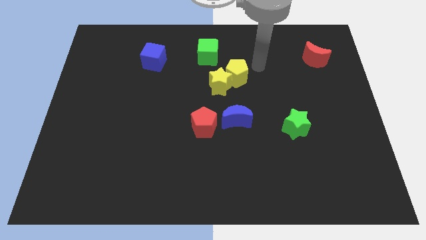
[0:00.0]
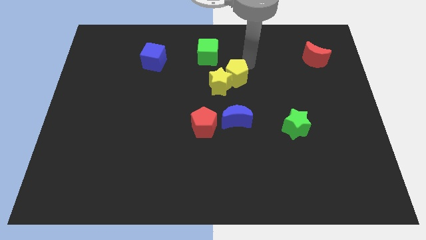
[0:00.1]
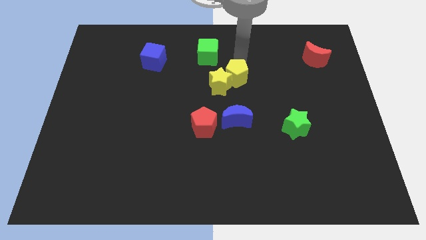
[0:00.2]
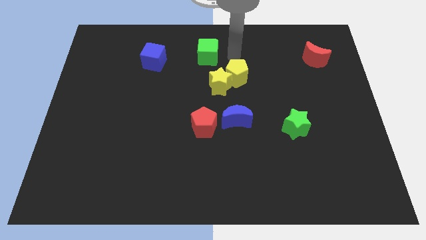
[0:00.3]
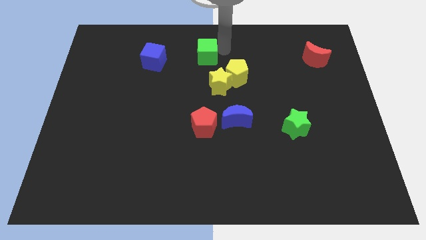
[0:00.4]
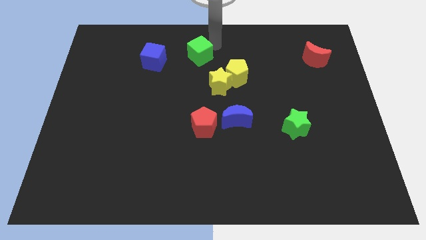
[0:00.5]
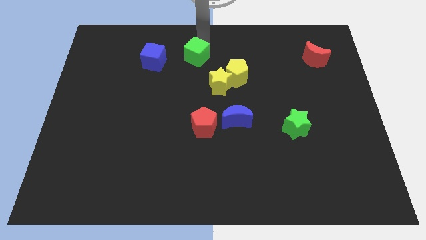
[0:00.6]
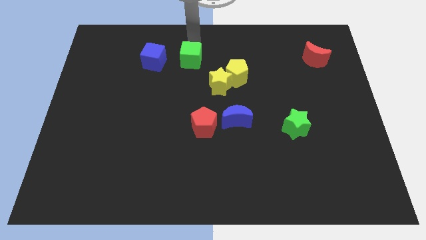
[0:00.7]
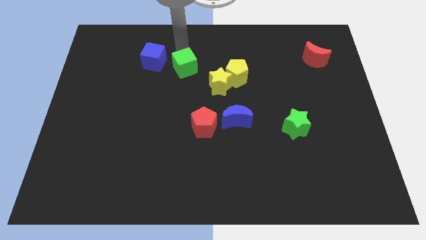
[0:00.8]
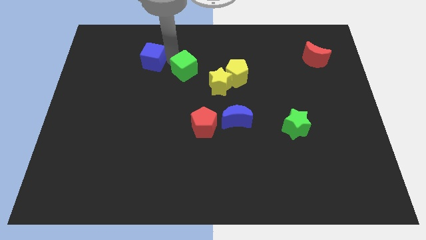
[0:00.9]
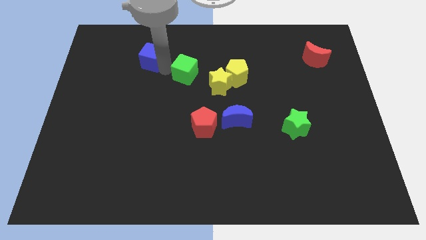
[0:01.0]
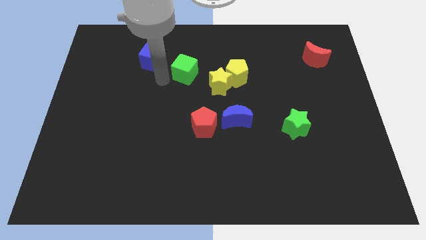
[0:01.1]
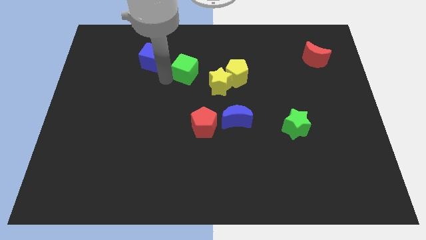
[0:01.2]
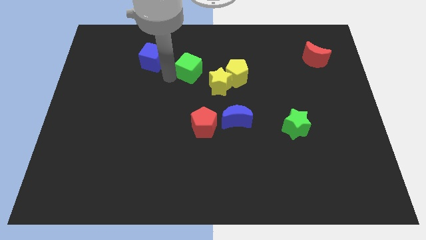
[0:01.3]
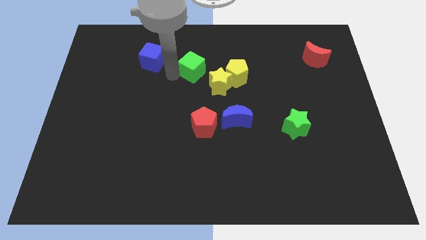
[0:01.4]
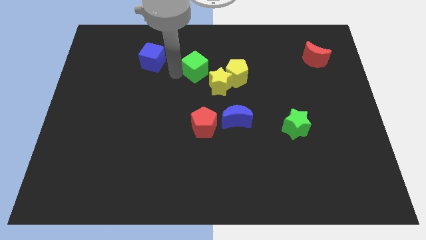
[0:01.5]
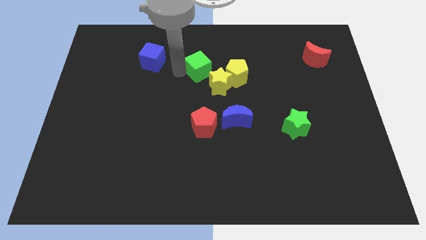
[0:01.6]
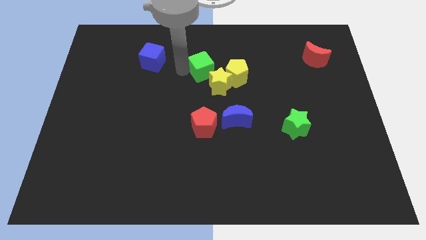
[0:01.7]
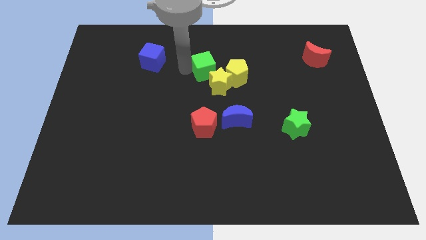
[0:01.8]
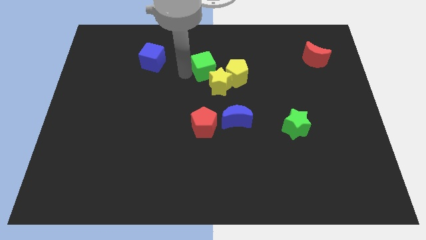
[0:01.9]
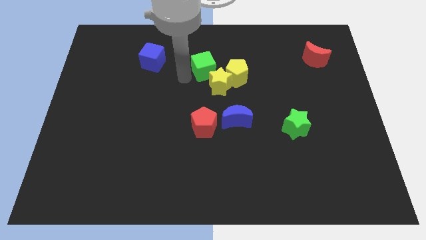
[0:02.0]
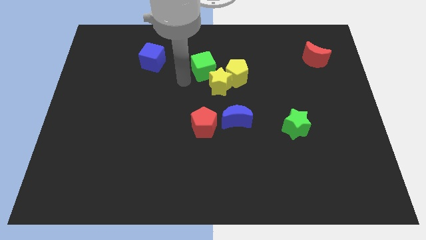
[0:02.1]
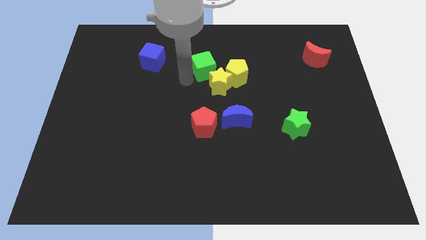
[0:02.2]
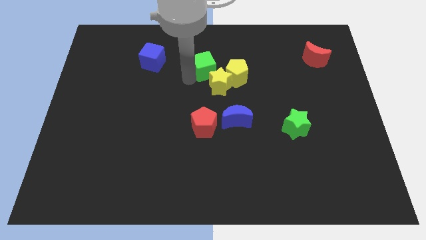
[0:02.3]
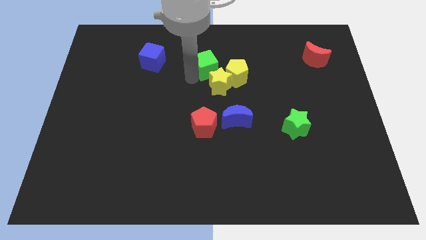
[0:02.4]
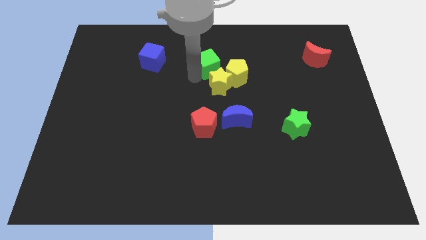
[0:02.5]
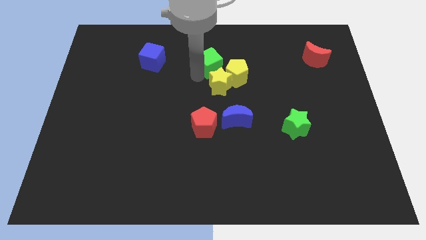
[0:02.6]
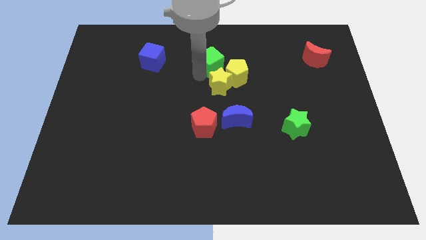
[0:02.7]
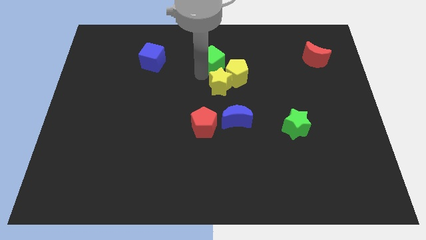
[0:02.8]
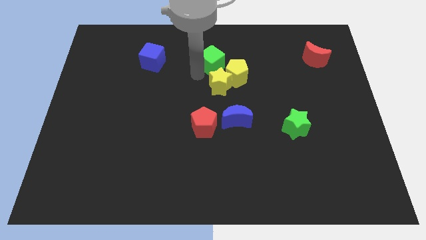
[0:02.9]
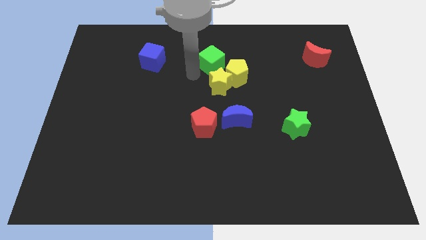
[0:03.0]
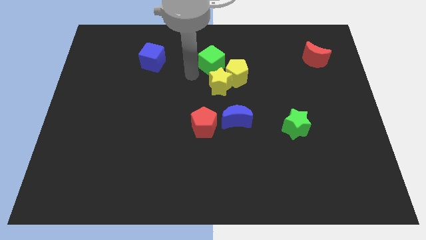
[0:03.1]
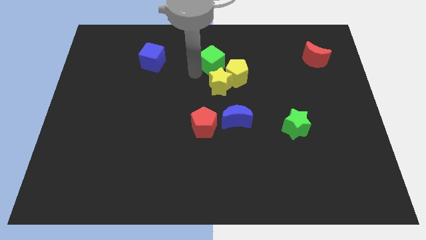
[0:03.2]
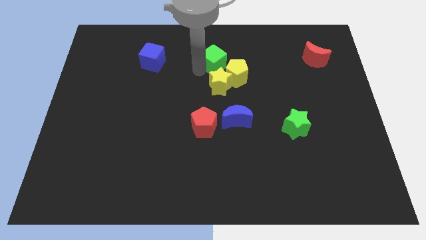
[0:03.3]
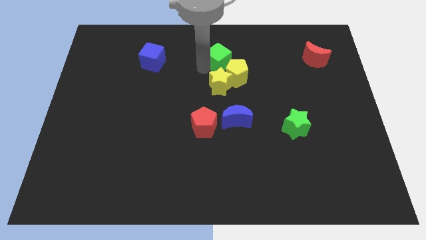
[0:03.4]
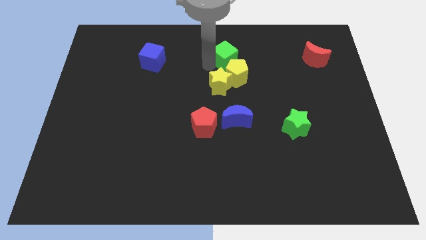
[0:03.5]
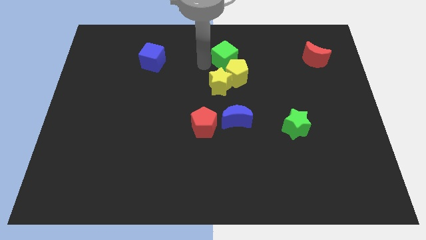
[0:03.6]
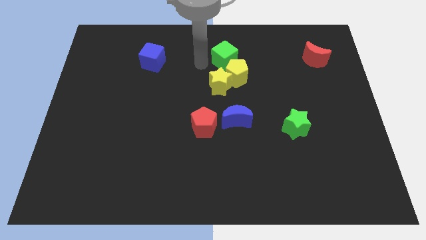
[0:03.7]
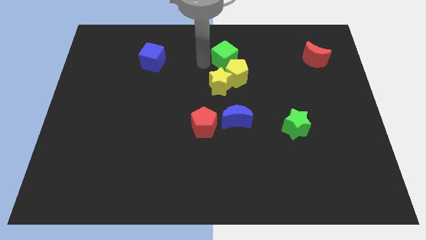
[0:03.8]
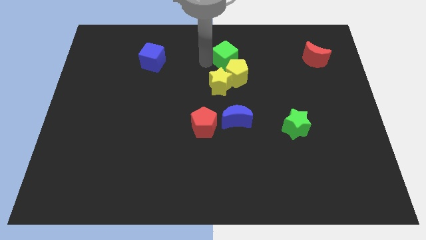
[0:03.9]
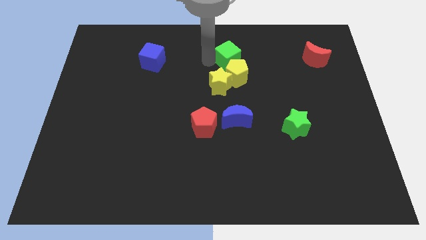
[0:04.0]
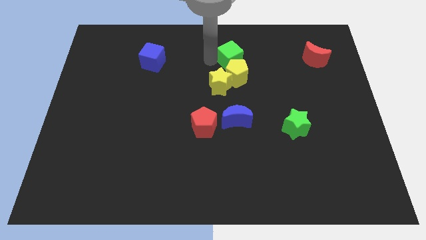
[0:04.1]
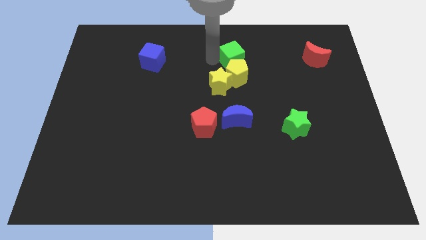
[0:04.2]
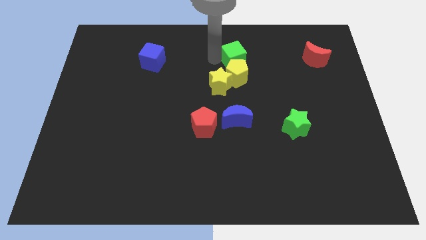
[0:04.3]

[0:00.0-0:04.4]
push the green cube right somewhat

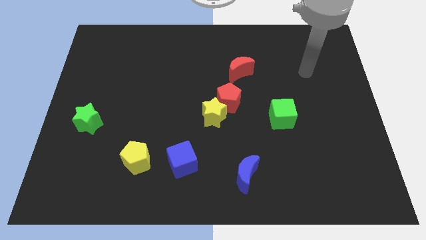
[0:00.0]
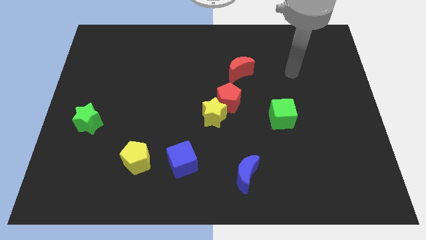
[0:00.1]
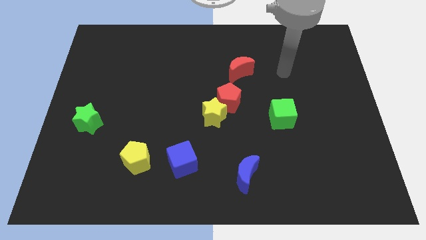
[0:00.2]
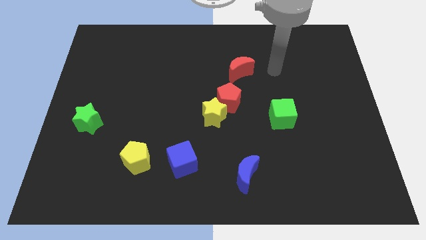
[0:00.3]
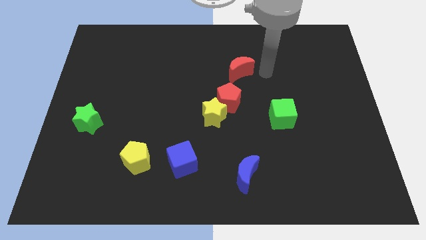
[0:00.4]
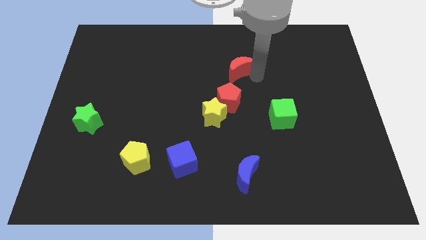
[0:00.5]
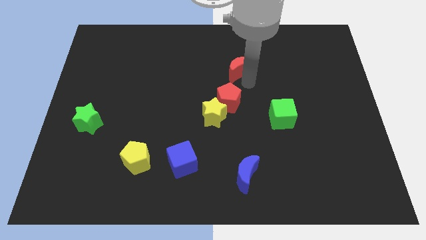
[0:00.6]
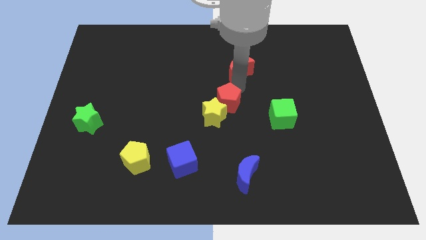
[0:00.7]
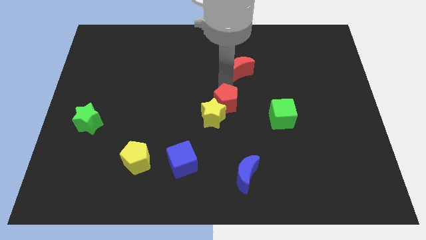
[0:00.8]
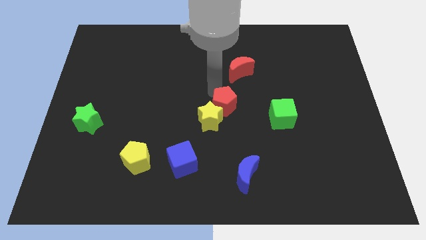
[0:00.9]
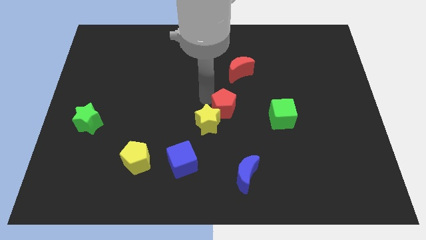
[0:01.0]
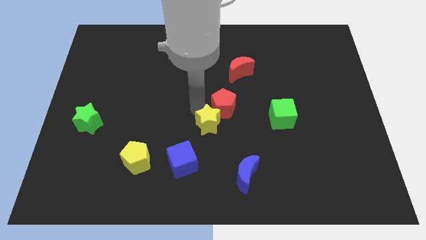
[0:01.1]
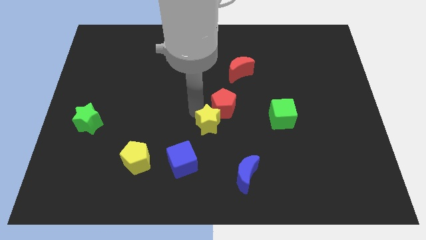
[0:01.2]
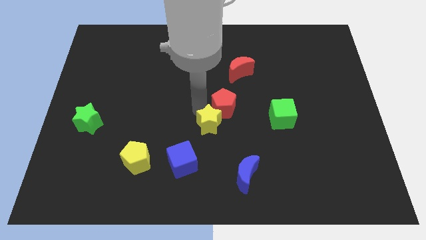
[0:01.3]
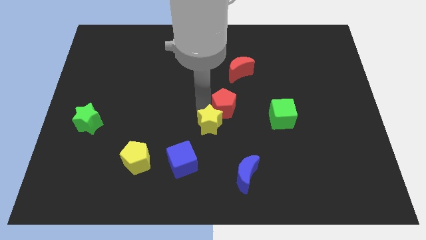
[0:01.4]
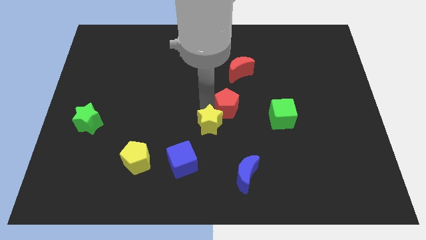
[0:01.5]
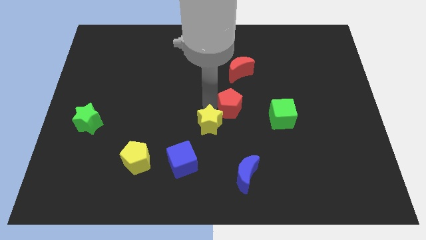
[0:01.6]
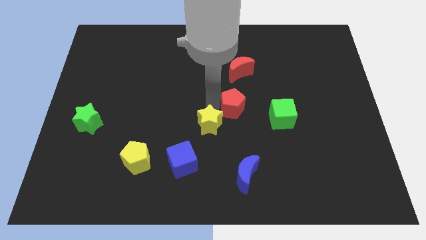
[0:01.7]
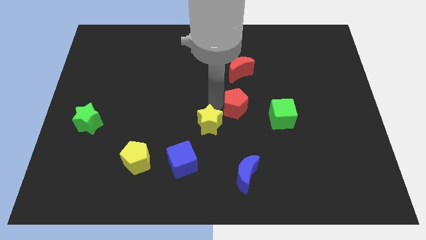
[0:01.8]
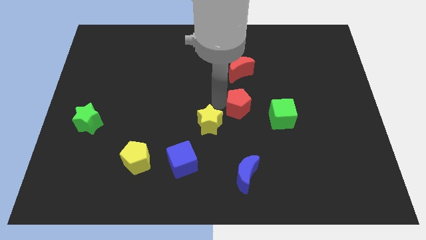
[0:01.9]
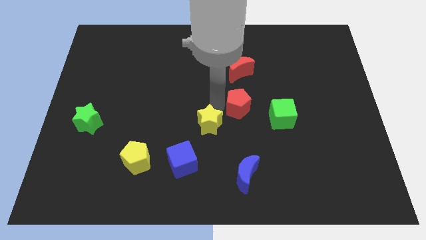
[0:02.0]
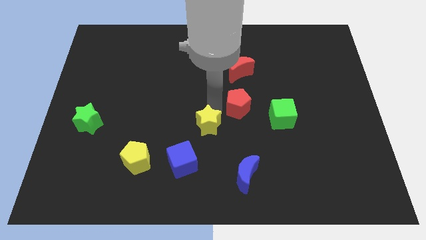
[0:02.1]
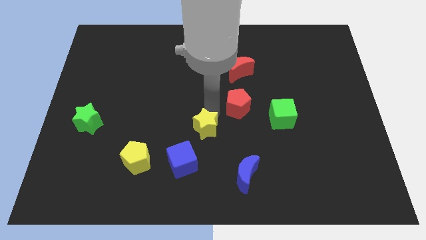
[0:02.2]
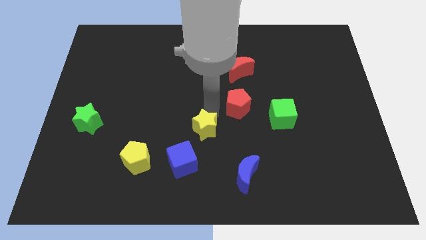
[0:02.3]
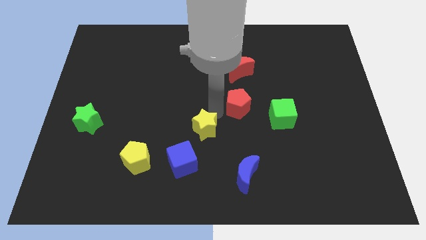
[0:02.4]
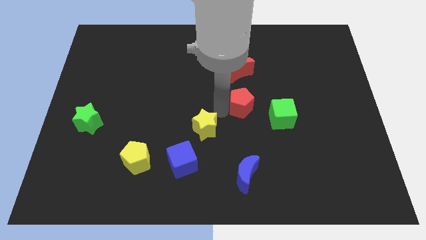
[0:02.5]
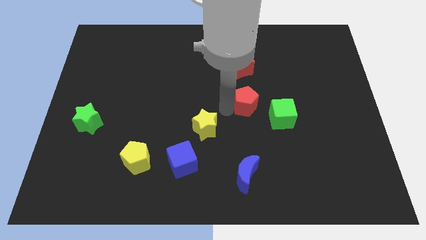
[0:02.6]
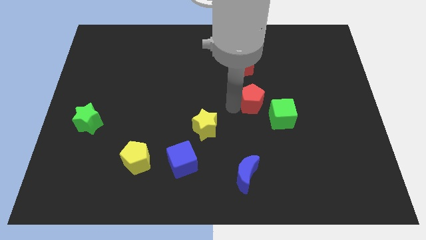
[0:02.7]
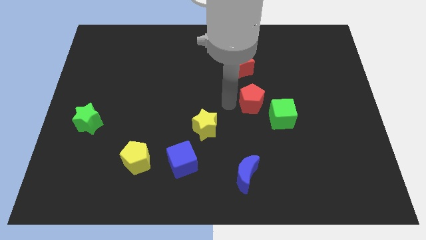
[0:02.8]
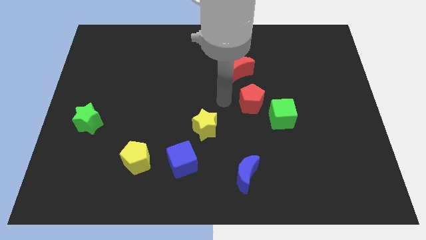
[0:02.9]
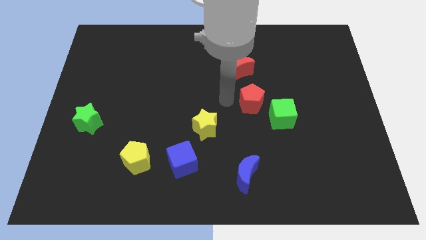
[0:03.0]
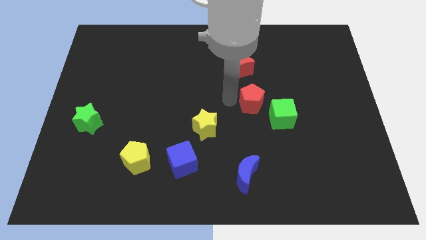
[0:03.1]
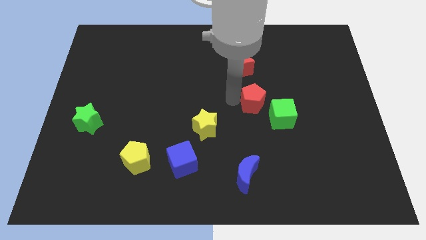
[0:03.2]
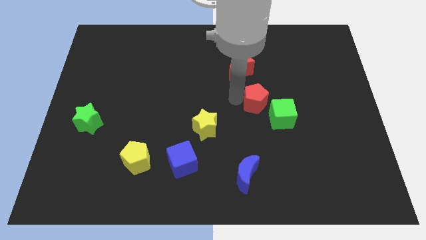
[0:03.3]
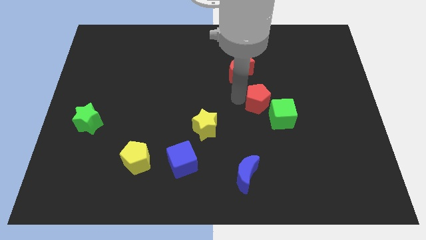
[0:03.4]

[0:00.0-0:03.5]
slide the red pentagon a bit to the right

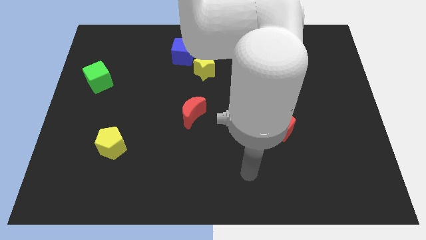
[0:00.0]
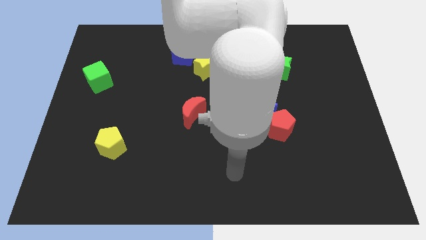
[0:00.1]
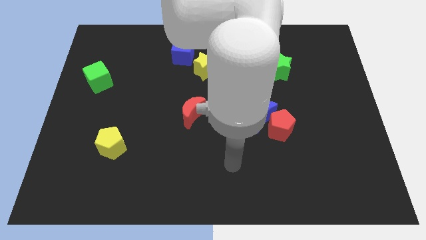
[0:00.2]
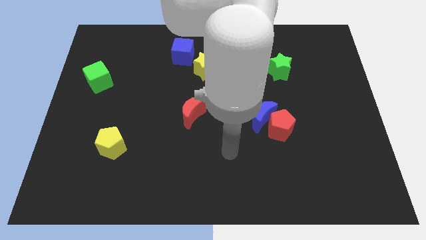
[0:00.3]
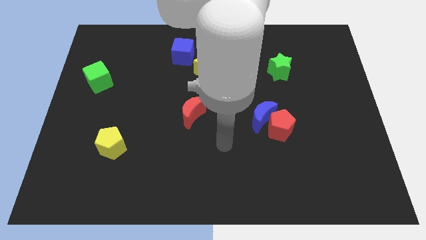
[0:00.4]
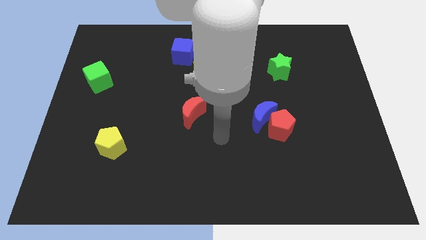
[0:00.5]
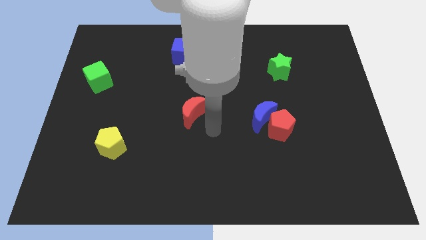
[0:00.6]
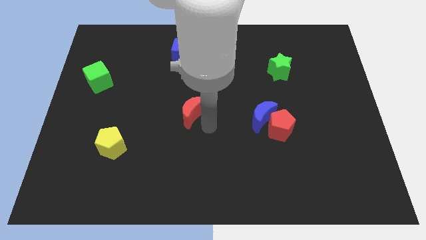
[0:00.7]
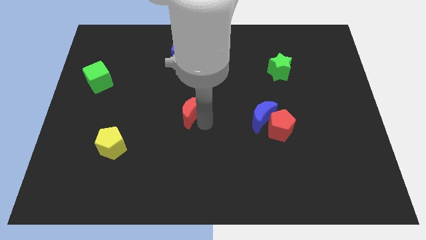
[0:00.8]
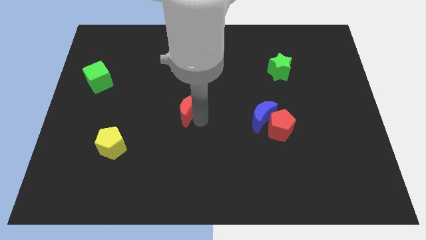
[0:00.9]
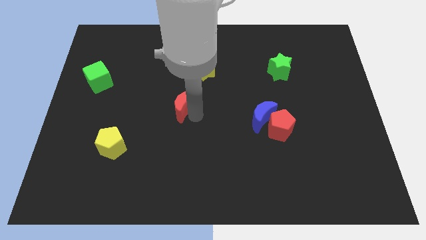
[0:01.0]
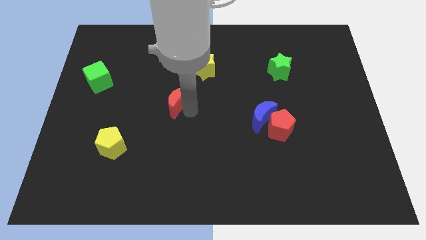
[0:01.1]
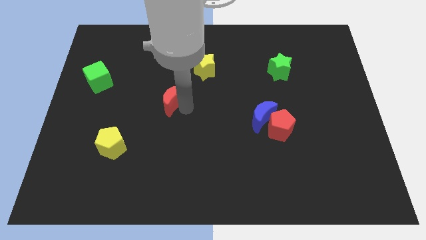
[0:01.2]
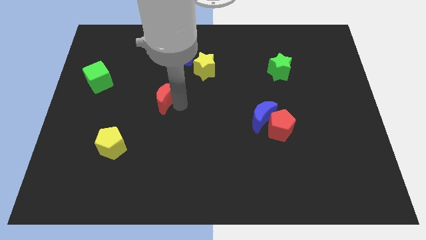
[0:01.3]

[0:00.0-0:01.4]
slightly push the red moon upwards and left diagonally
